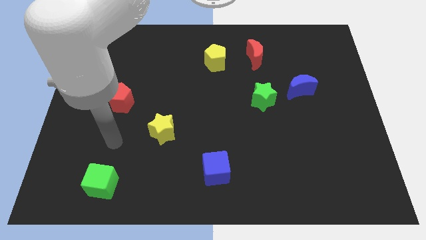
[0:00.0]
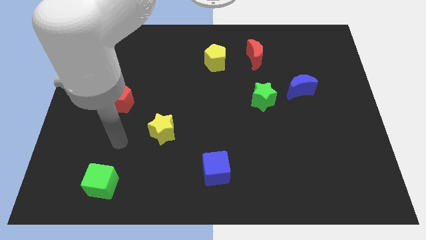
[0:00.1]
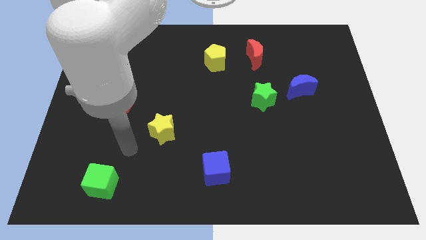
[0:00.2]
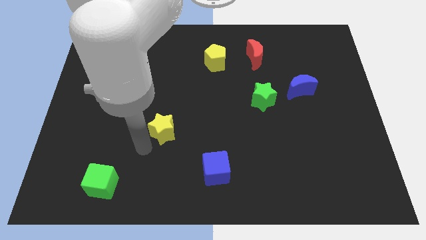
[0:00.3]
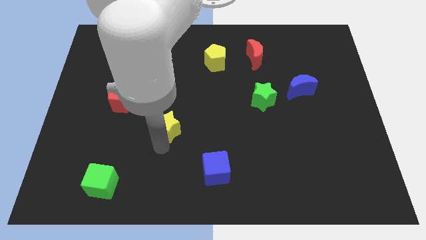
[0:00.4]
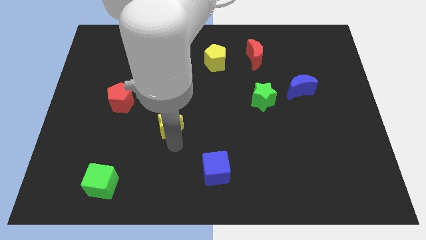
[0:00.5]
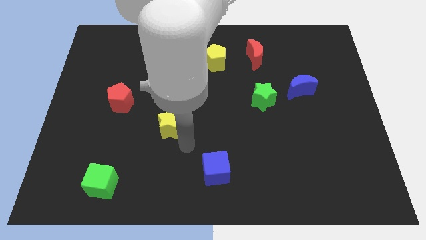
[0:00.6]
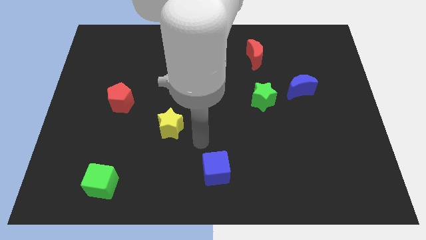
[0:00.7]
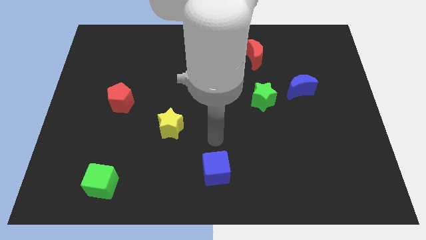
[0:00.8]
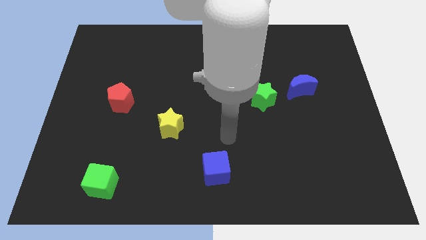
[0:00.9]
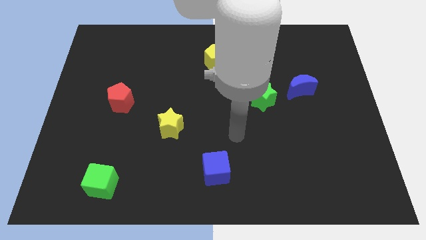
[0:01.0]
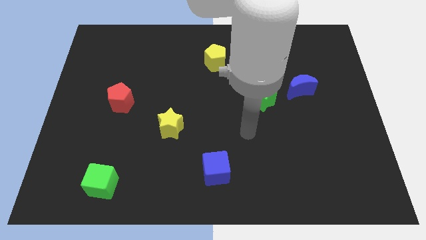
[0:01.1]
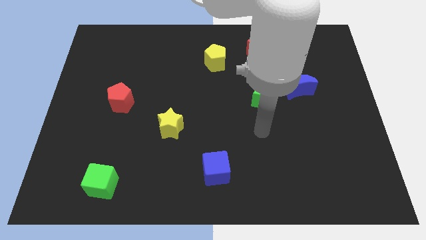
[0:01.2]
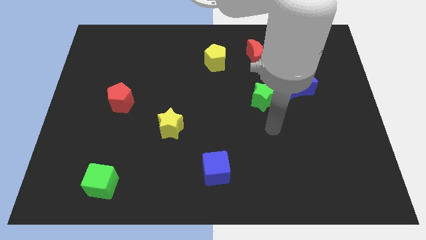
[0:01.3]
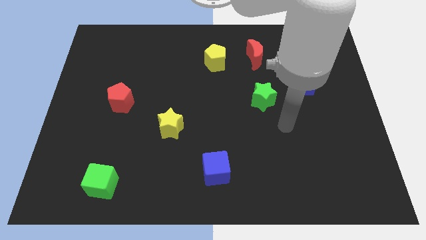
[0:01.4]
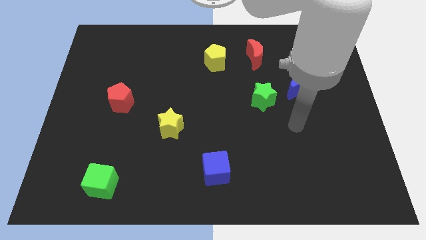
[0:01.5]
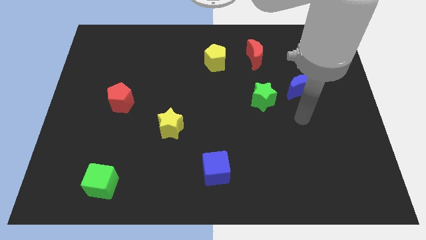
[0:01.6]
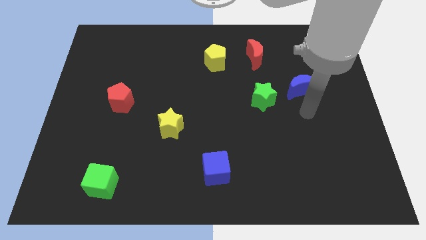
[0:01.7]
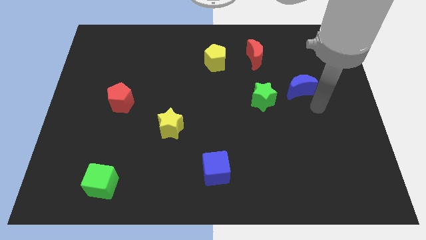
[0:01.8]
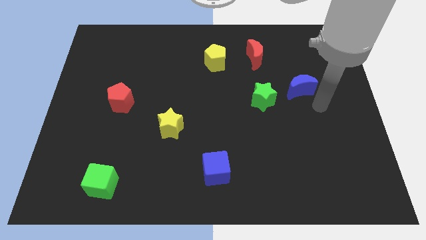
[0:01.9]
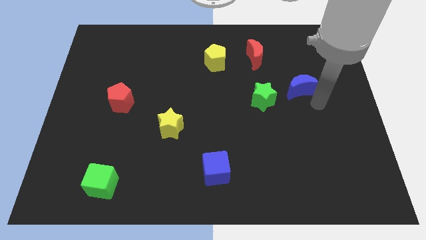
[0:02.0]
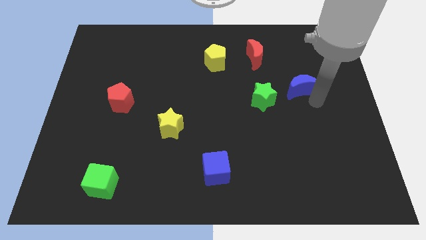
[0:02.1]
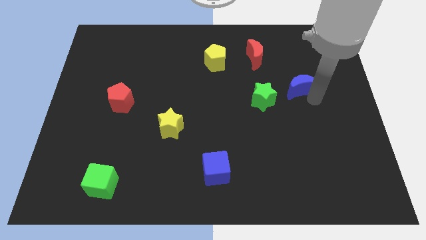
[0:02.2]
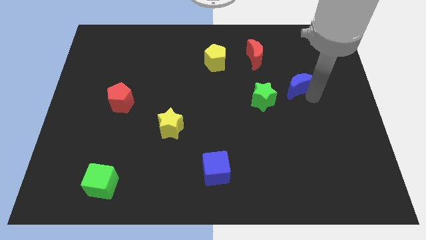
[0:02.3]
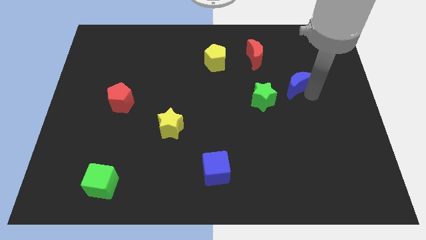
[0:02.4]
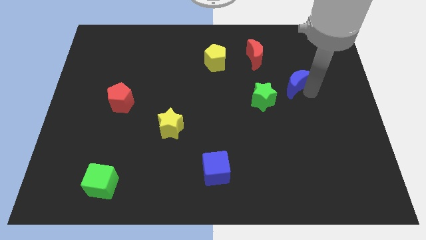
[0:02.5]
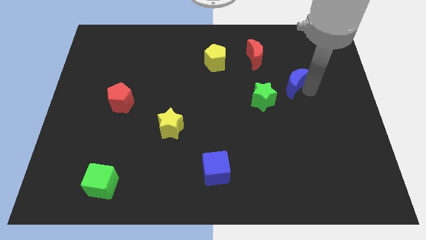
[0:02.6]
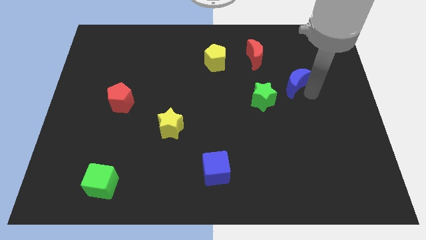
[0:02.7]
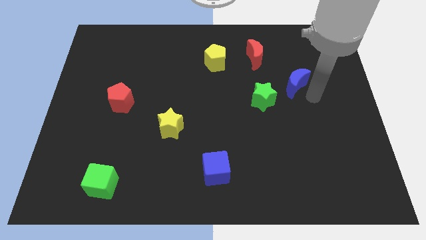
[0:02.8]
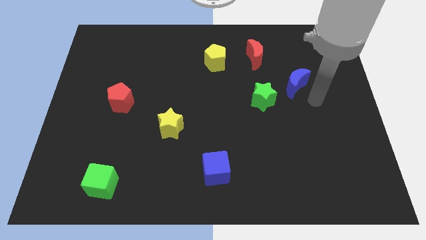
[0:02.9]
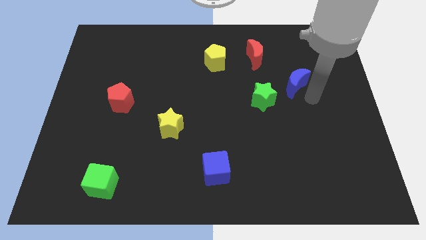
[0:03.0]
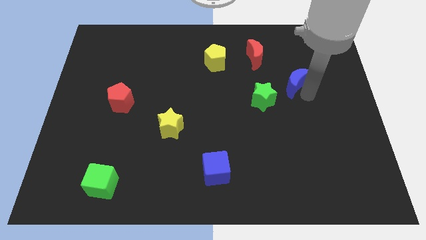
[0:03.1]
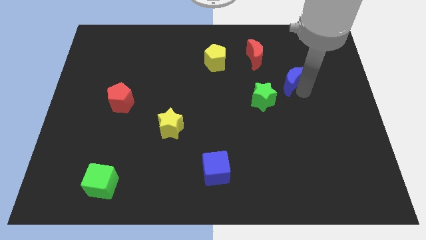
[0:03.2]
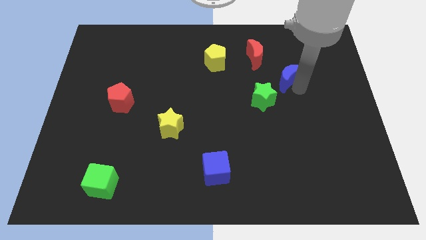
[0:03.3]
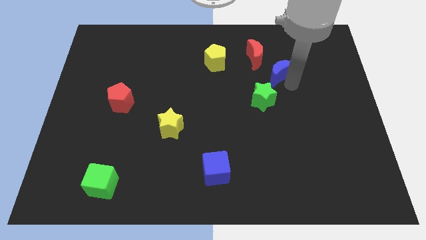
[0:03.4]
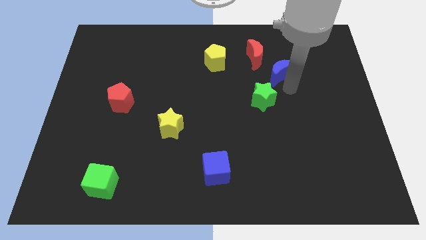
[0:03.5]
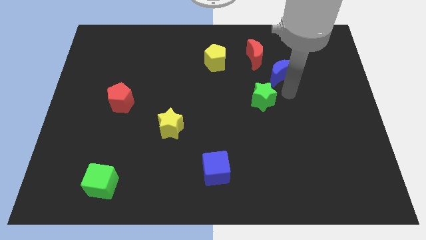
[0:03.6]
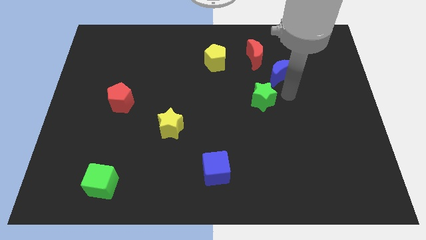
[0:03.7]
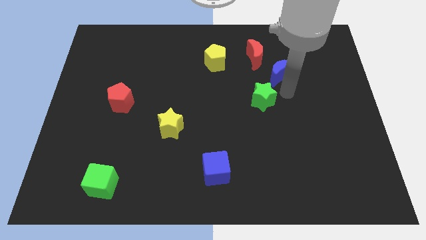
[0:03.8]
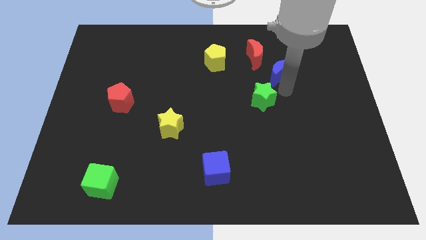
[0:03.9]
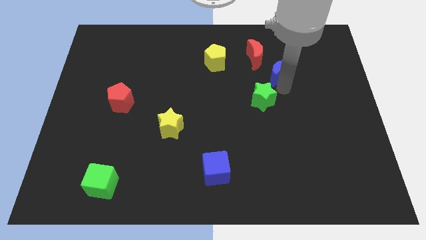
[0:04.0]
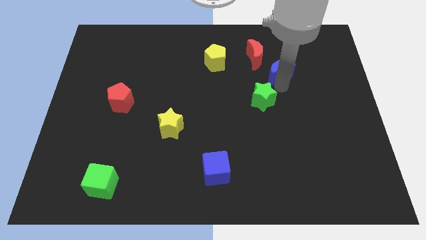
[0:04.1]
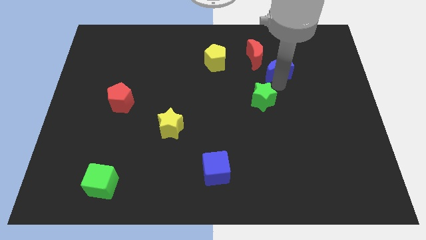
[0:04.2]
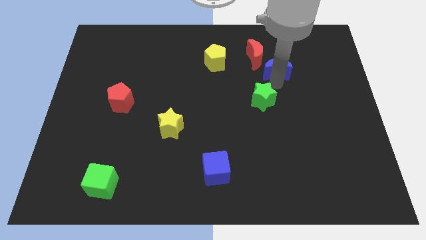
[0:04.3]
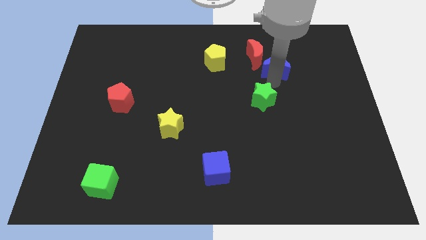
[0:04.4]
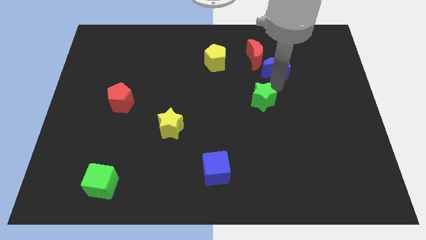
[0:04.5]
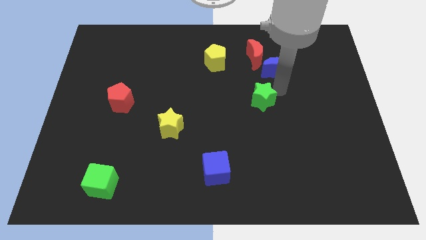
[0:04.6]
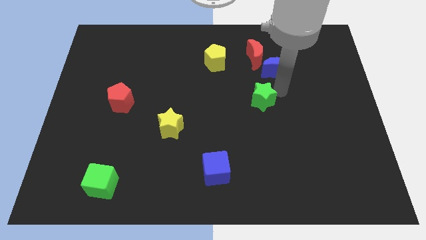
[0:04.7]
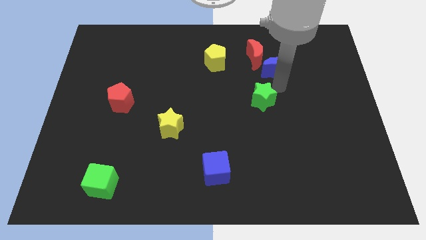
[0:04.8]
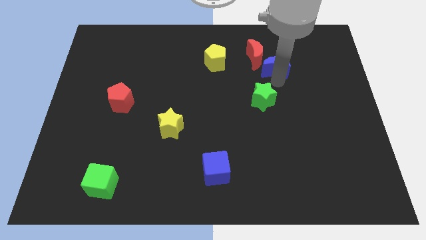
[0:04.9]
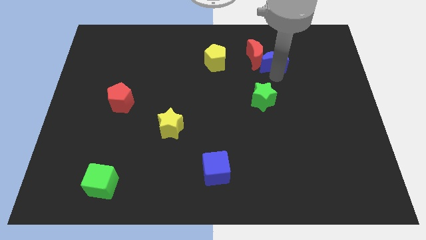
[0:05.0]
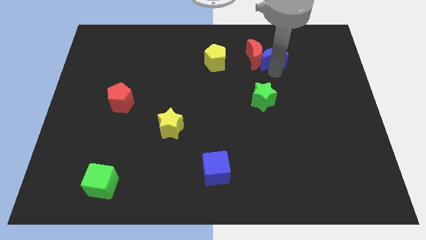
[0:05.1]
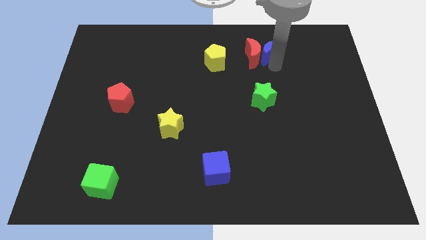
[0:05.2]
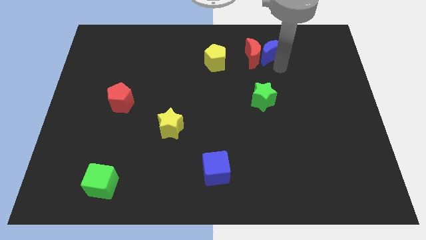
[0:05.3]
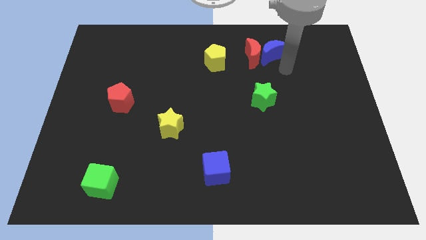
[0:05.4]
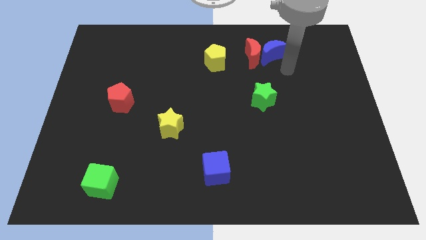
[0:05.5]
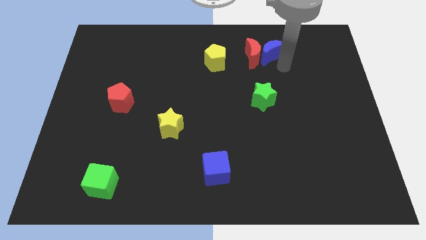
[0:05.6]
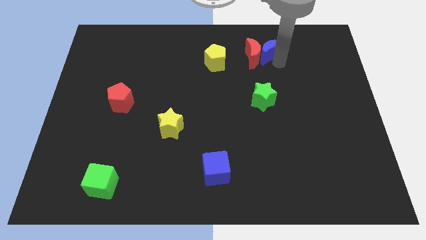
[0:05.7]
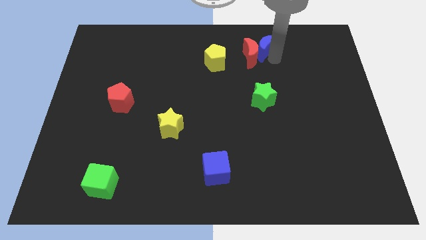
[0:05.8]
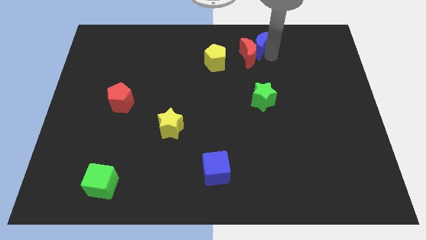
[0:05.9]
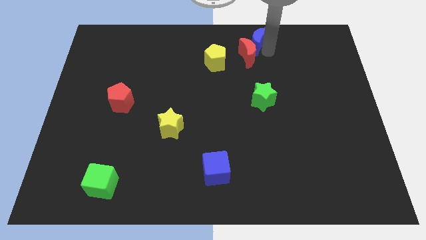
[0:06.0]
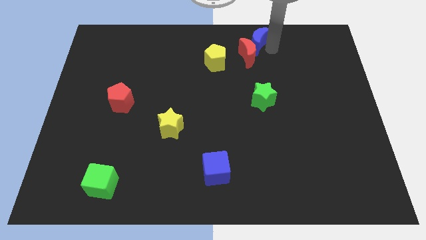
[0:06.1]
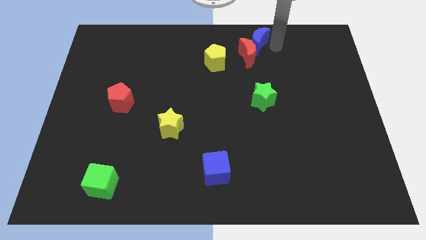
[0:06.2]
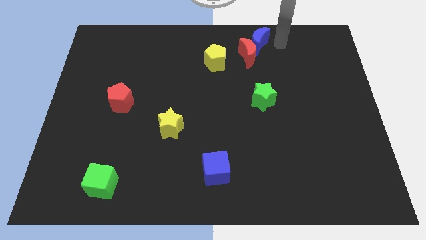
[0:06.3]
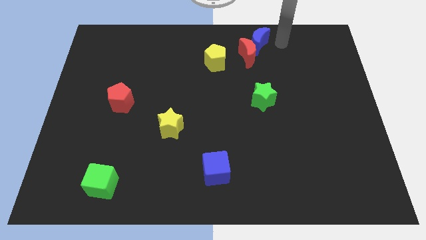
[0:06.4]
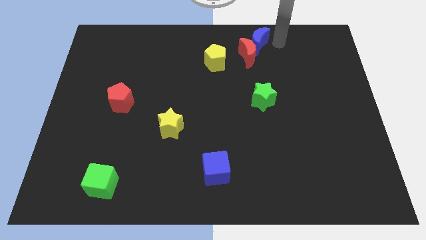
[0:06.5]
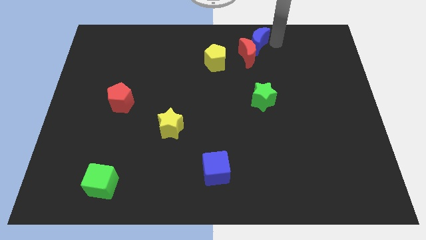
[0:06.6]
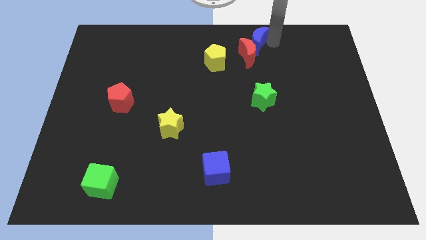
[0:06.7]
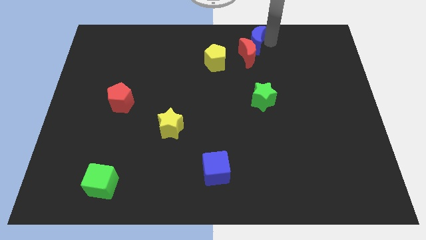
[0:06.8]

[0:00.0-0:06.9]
put the blue moon to the towards your base
